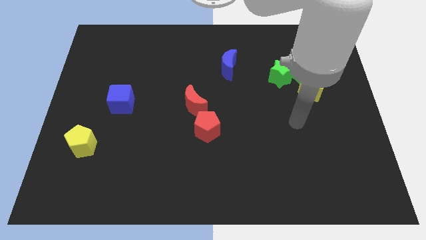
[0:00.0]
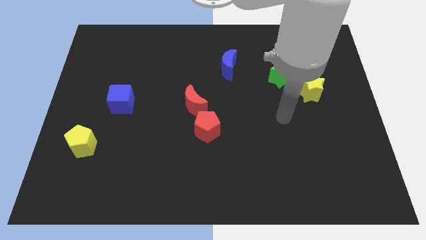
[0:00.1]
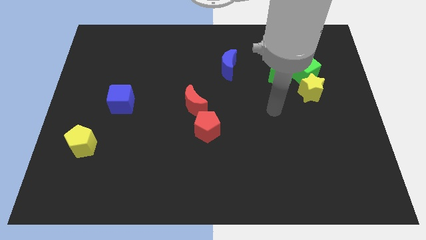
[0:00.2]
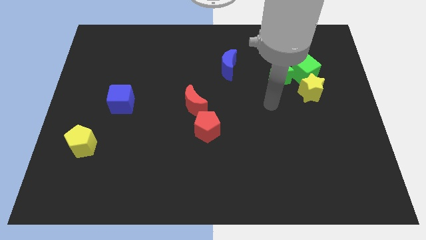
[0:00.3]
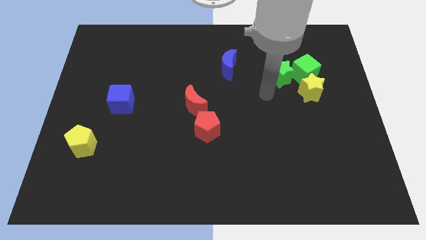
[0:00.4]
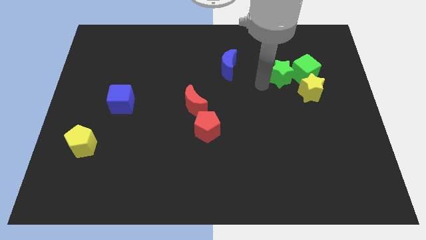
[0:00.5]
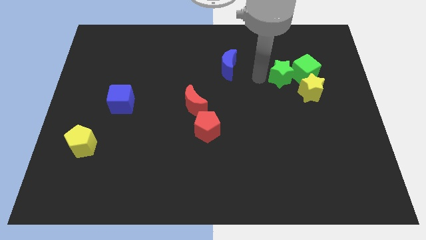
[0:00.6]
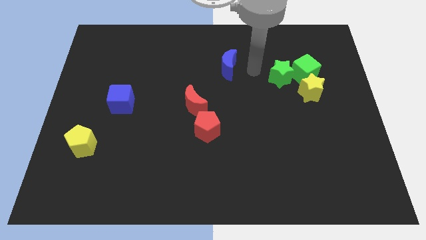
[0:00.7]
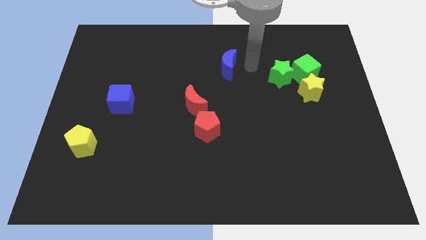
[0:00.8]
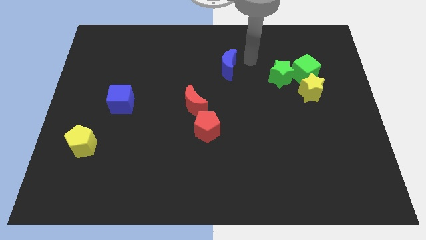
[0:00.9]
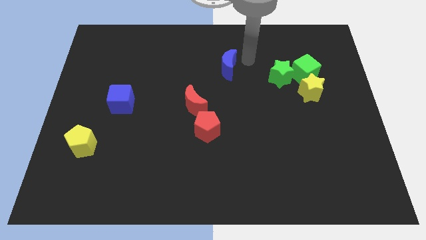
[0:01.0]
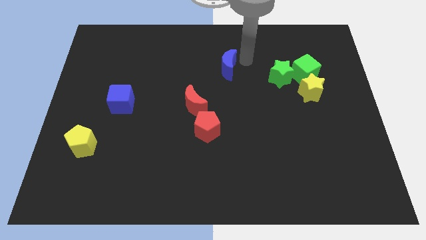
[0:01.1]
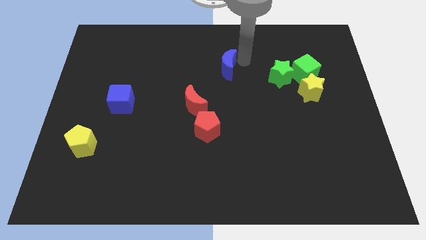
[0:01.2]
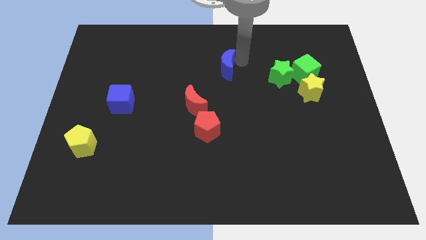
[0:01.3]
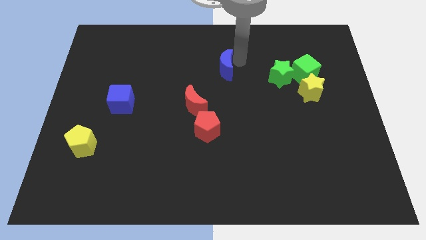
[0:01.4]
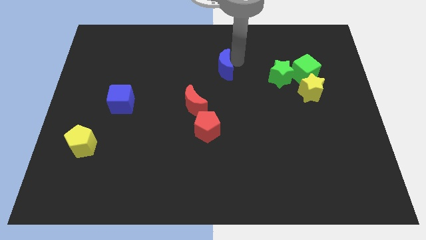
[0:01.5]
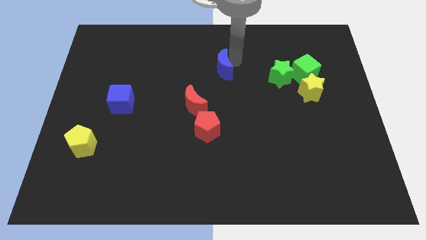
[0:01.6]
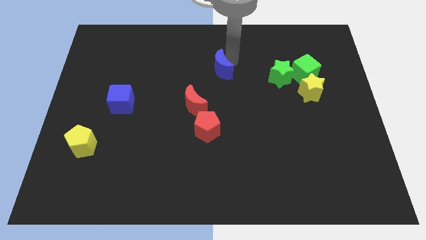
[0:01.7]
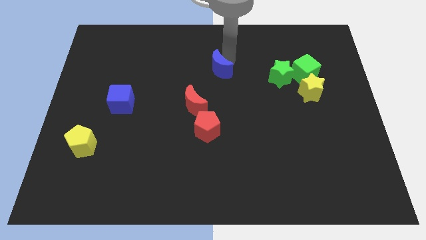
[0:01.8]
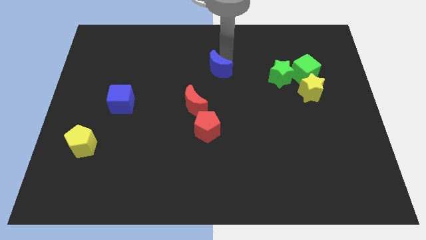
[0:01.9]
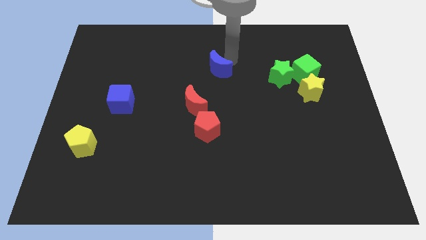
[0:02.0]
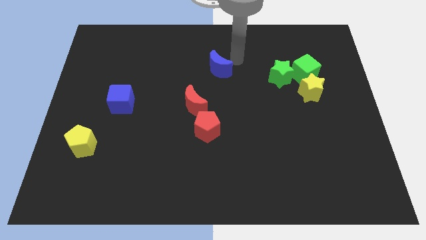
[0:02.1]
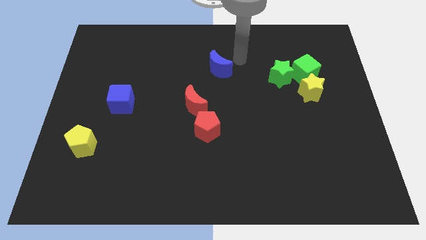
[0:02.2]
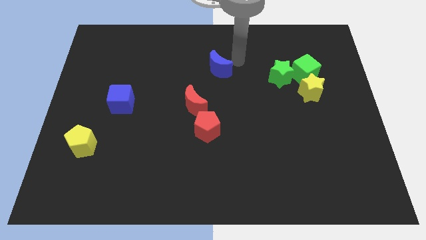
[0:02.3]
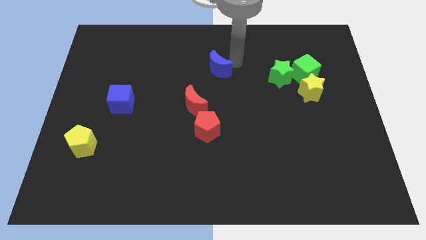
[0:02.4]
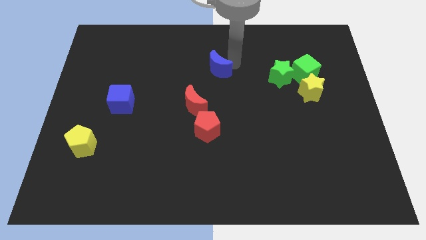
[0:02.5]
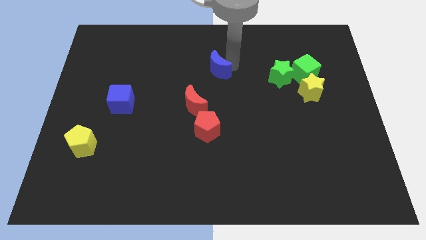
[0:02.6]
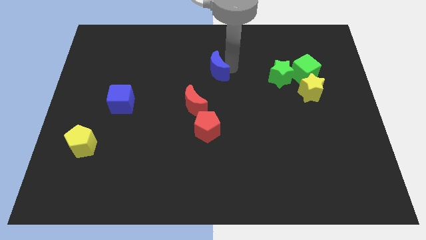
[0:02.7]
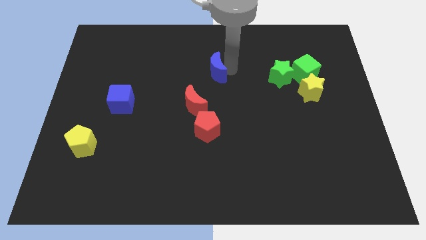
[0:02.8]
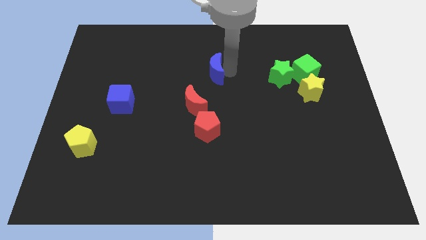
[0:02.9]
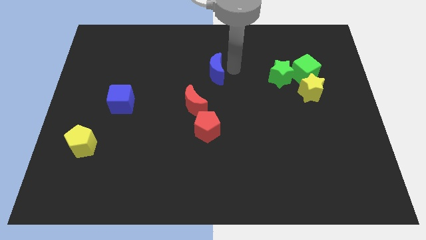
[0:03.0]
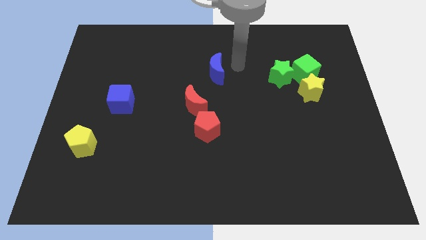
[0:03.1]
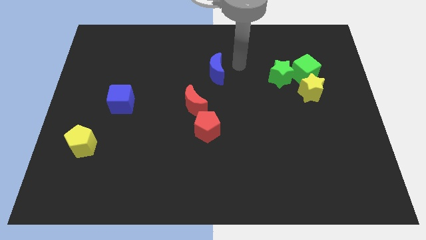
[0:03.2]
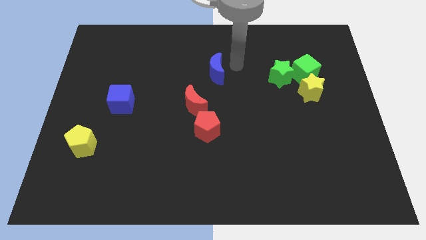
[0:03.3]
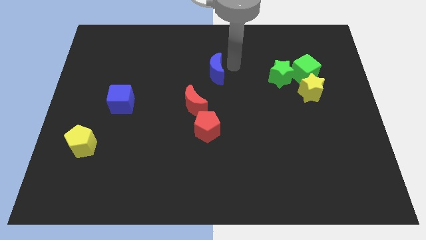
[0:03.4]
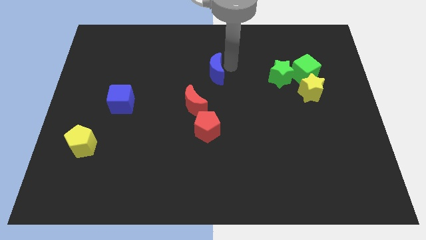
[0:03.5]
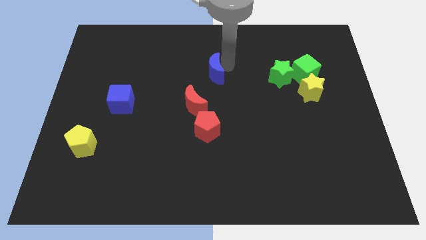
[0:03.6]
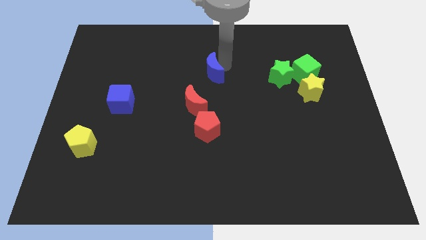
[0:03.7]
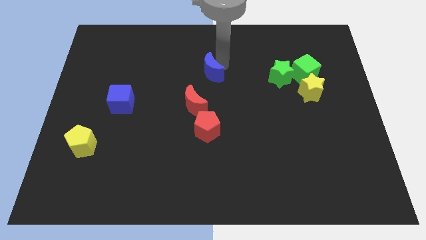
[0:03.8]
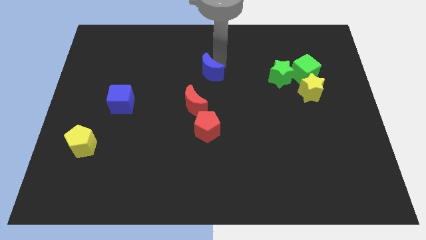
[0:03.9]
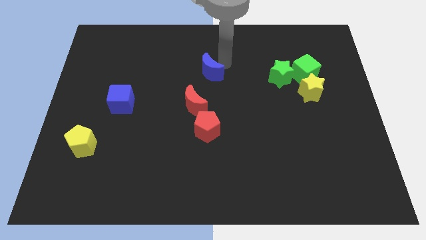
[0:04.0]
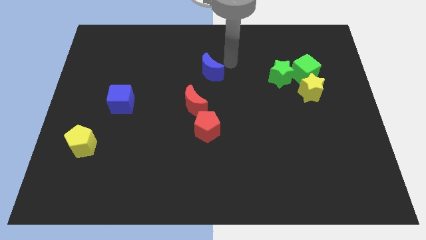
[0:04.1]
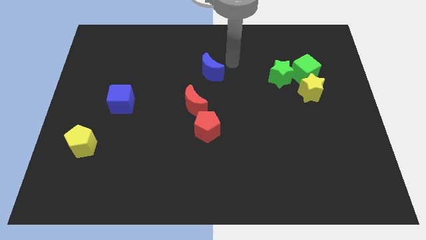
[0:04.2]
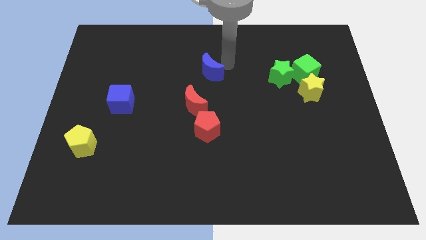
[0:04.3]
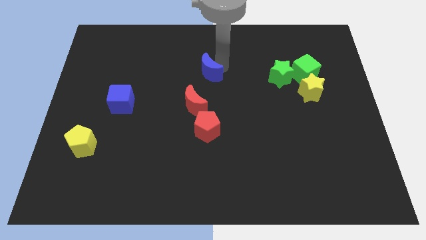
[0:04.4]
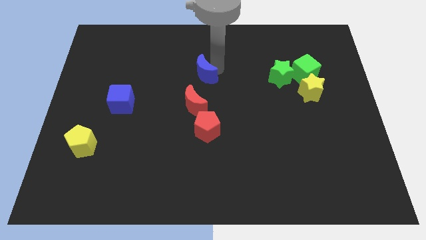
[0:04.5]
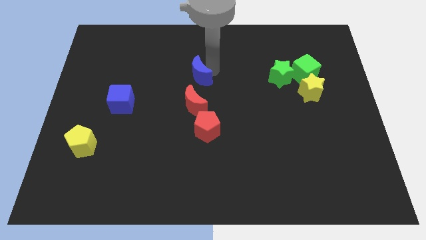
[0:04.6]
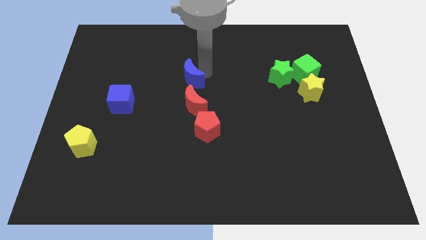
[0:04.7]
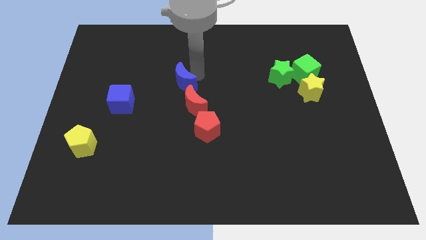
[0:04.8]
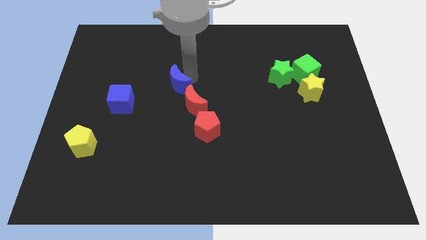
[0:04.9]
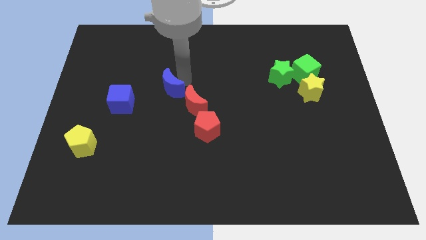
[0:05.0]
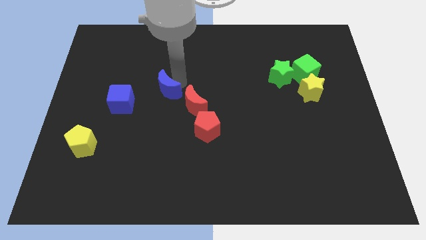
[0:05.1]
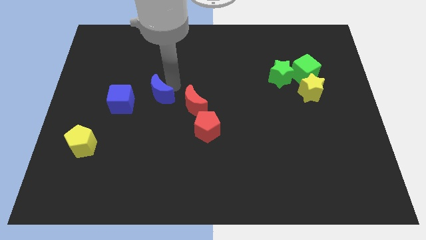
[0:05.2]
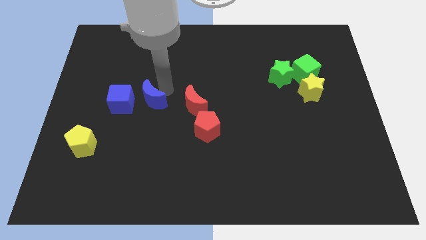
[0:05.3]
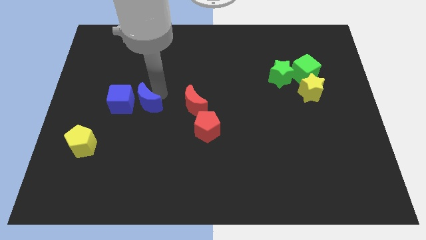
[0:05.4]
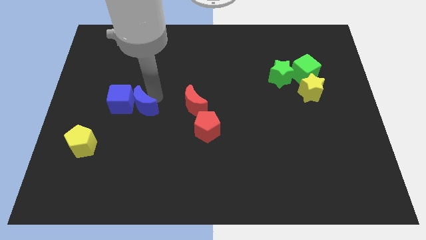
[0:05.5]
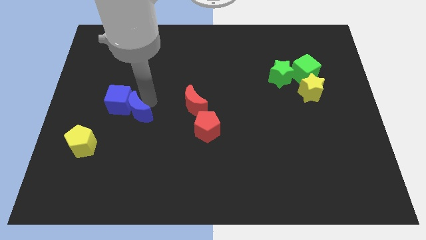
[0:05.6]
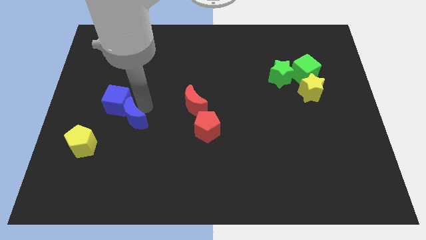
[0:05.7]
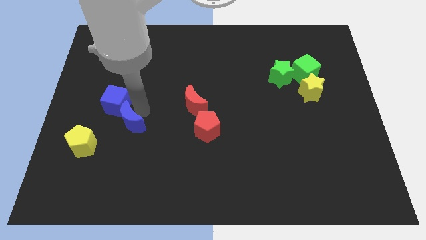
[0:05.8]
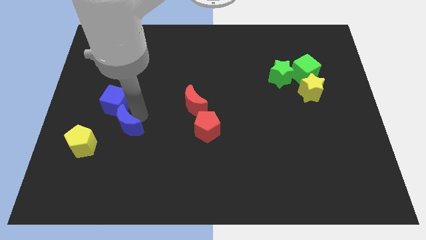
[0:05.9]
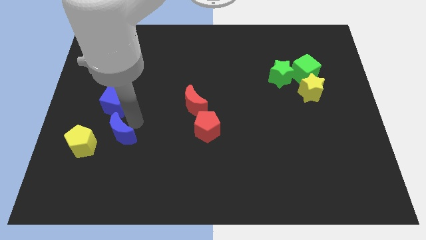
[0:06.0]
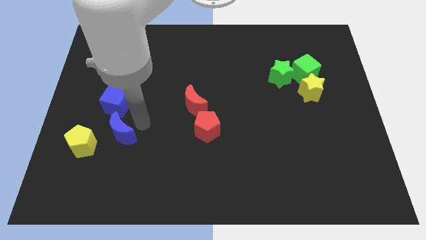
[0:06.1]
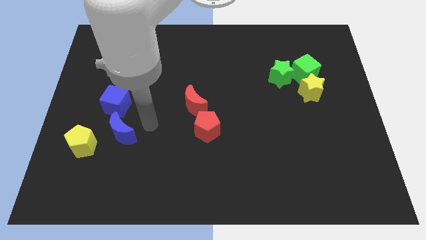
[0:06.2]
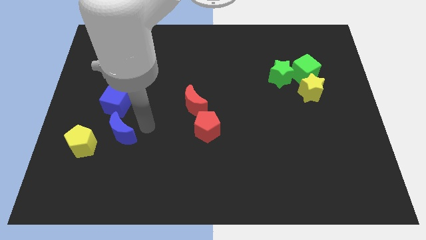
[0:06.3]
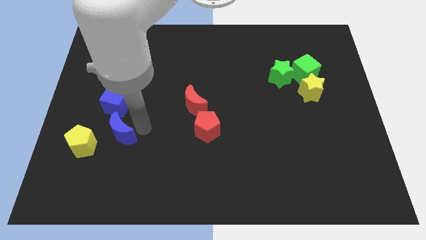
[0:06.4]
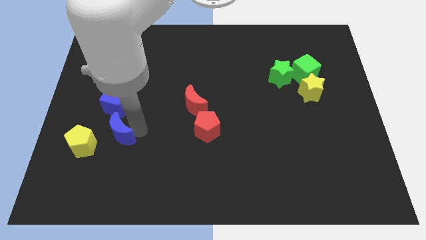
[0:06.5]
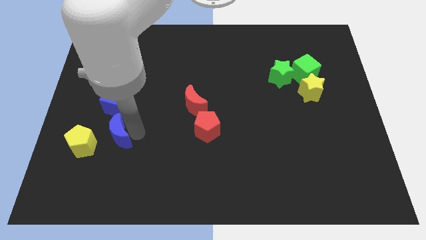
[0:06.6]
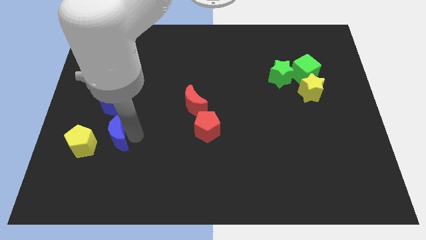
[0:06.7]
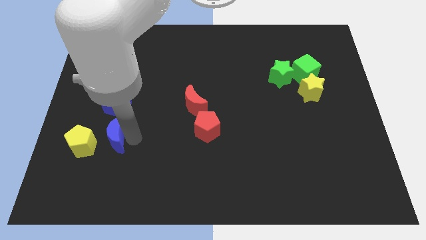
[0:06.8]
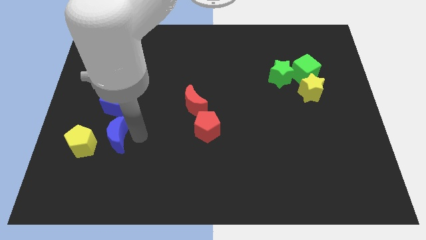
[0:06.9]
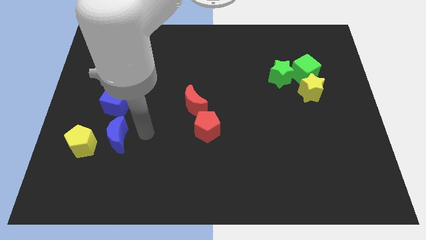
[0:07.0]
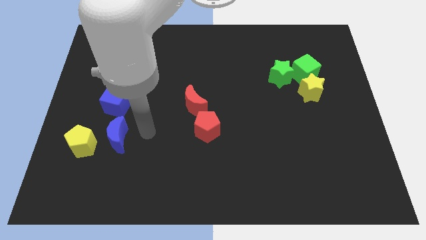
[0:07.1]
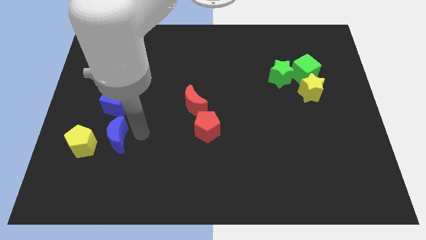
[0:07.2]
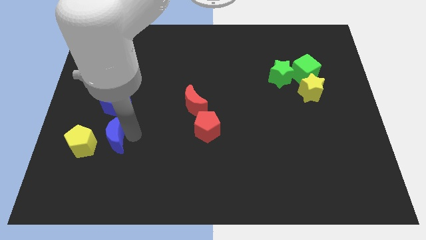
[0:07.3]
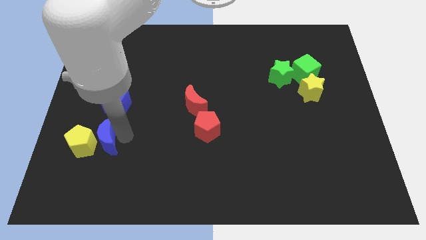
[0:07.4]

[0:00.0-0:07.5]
move the blue moon next to the yellow pentagon
